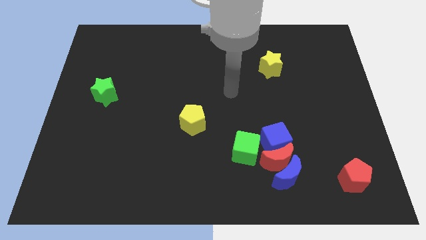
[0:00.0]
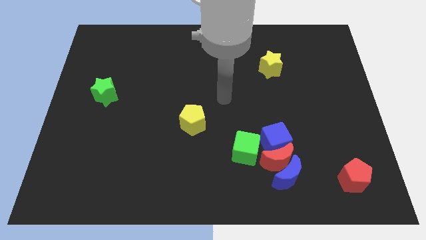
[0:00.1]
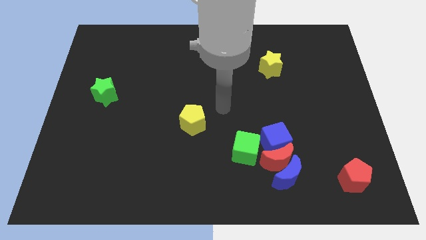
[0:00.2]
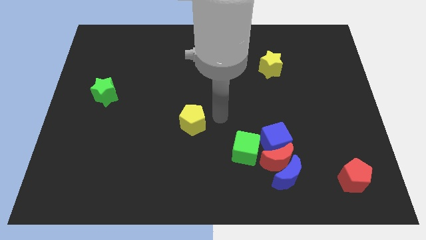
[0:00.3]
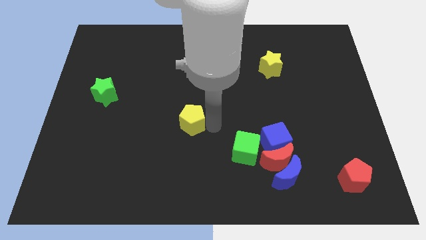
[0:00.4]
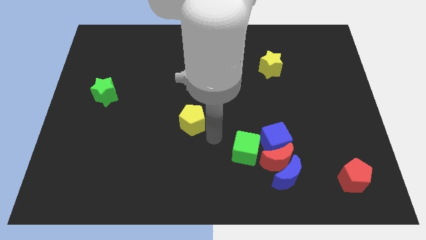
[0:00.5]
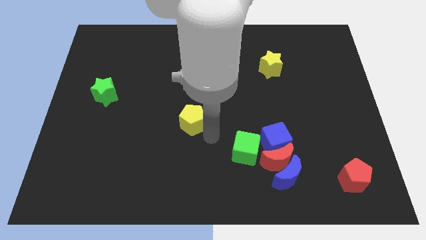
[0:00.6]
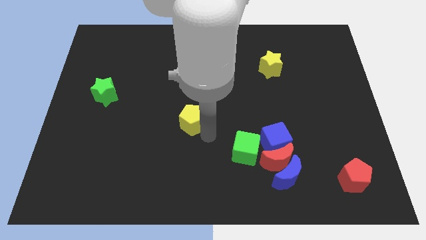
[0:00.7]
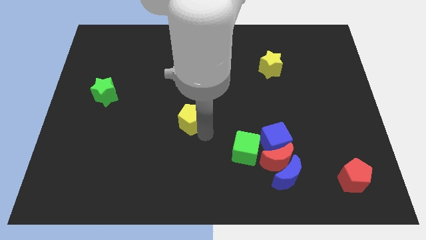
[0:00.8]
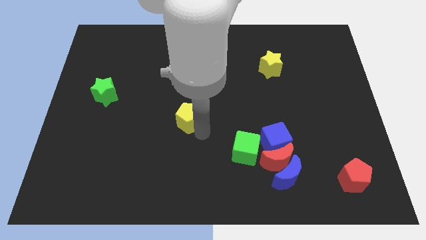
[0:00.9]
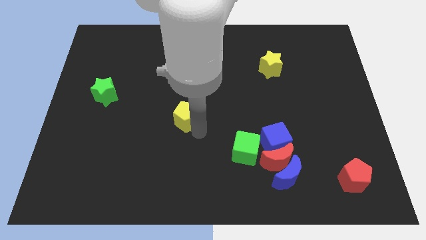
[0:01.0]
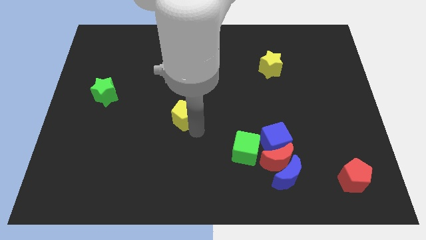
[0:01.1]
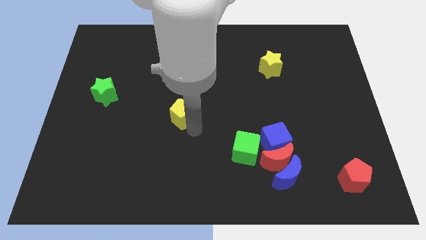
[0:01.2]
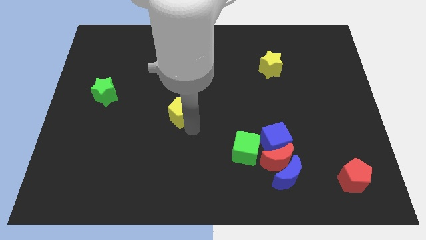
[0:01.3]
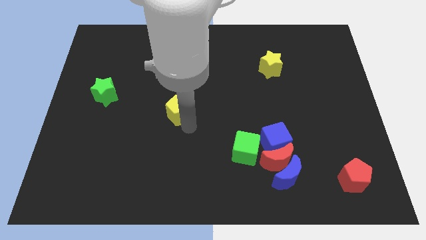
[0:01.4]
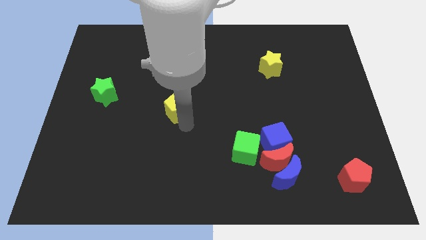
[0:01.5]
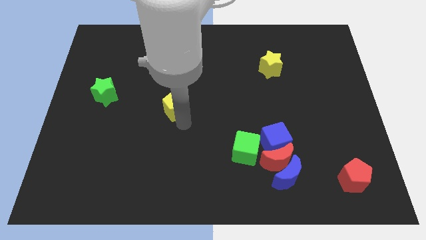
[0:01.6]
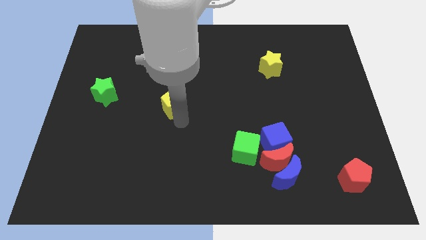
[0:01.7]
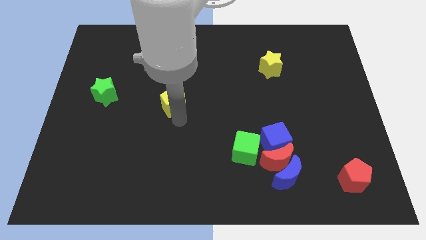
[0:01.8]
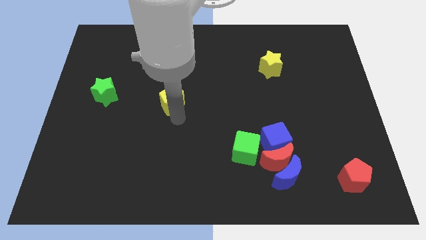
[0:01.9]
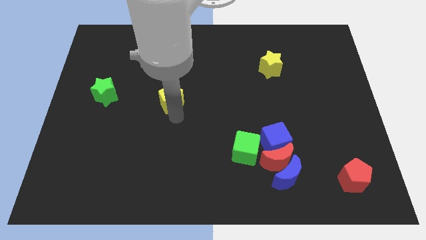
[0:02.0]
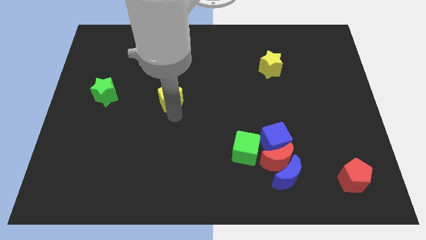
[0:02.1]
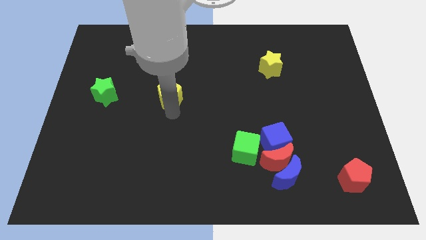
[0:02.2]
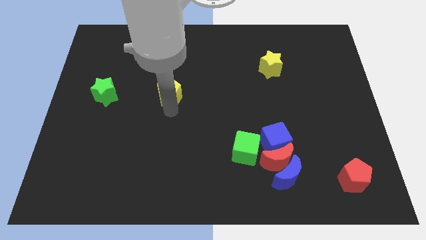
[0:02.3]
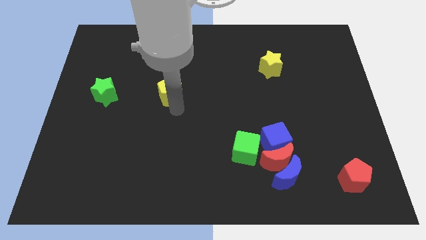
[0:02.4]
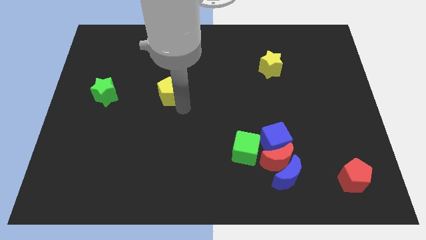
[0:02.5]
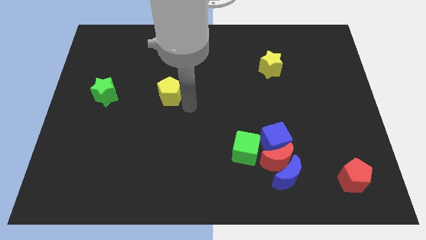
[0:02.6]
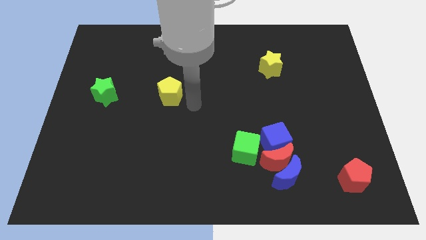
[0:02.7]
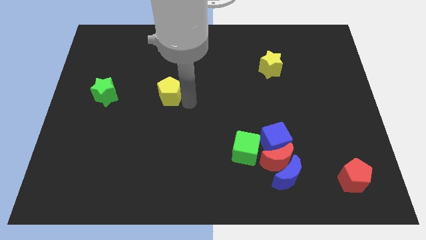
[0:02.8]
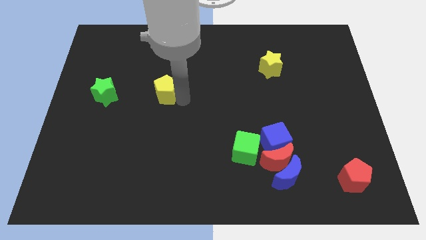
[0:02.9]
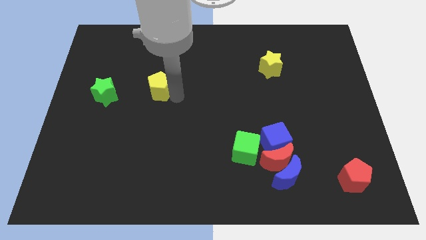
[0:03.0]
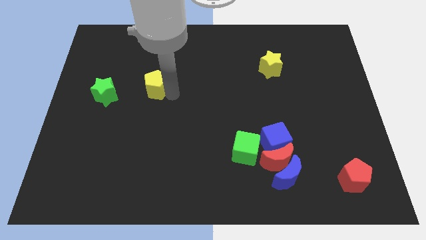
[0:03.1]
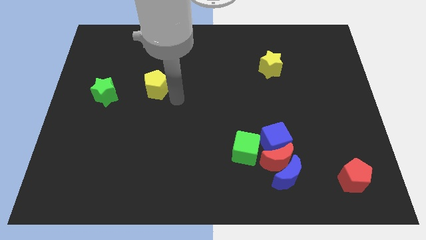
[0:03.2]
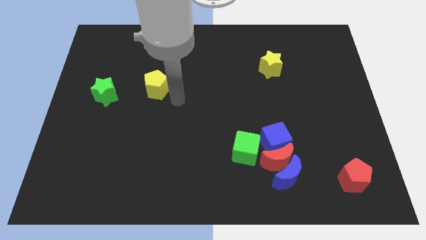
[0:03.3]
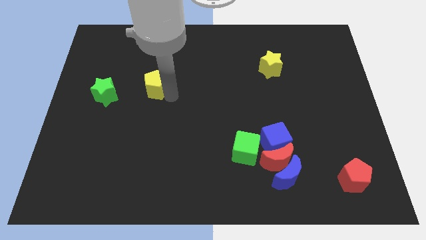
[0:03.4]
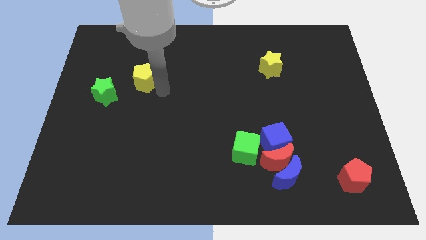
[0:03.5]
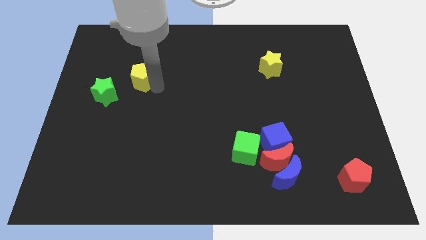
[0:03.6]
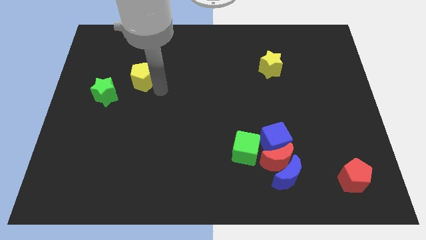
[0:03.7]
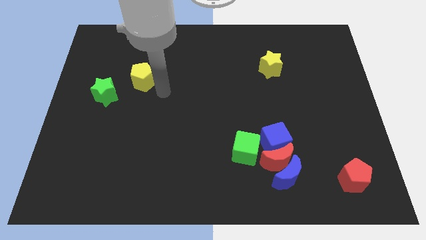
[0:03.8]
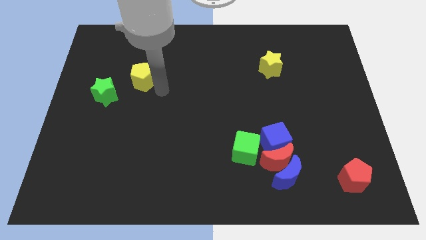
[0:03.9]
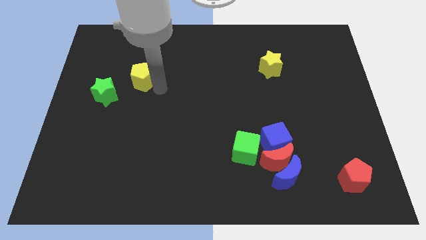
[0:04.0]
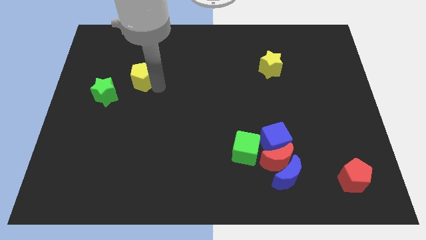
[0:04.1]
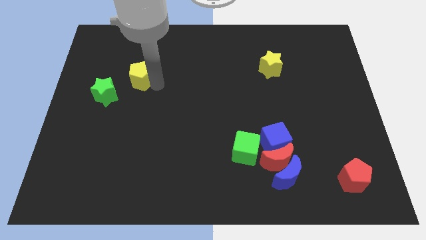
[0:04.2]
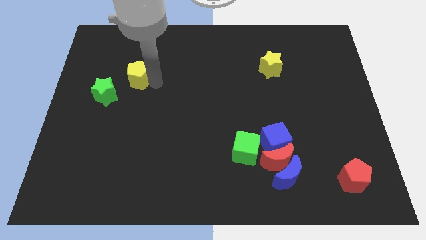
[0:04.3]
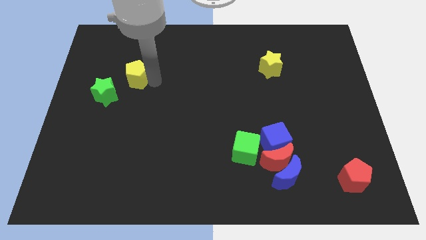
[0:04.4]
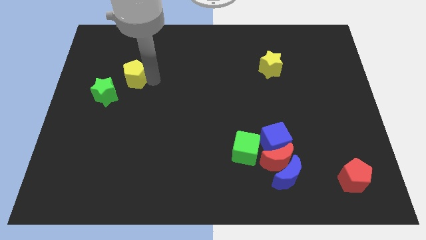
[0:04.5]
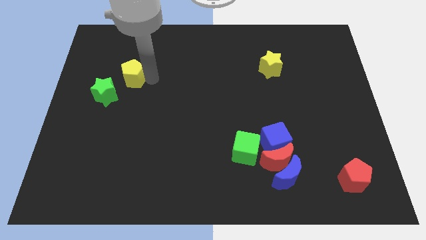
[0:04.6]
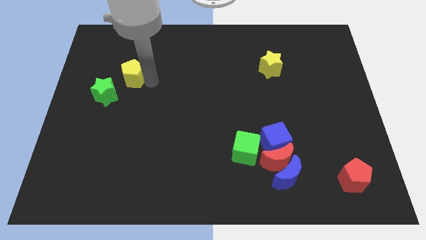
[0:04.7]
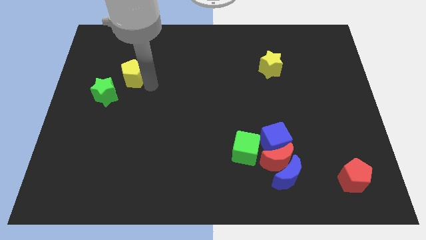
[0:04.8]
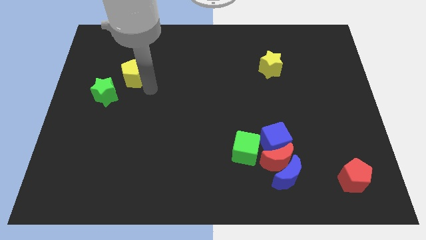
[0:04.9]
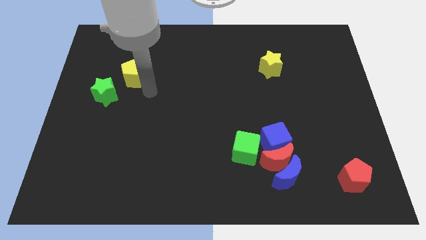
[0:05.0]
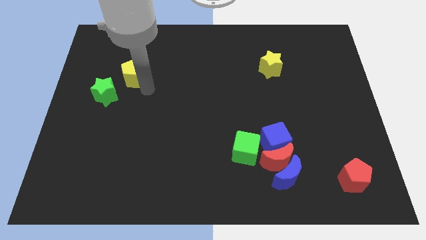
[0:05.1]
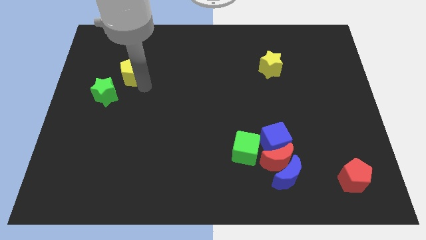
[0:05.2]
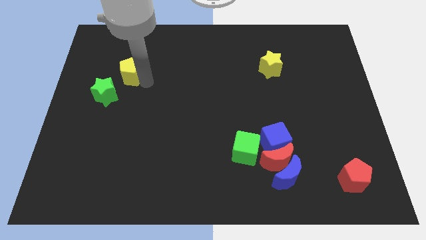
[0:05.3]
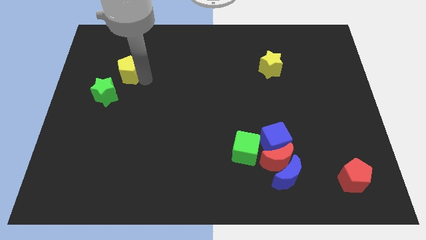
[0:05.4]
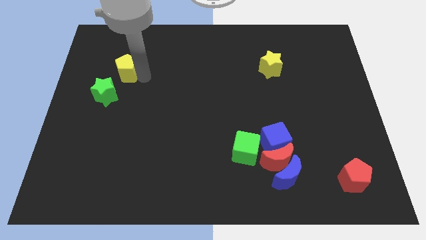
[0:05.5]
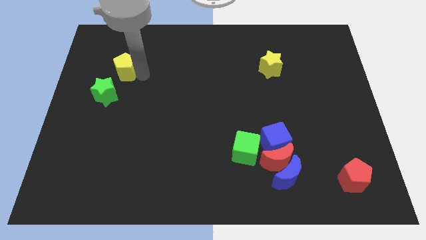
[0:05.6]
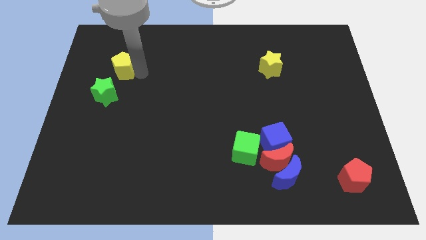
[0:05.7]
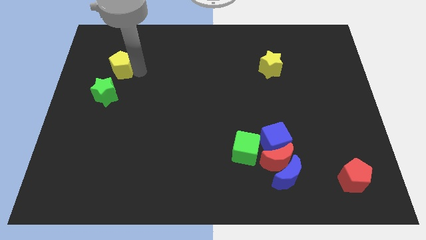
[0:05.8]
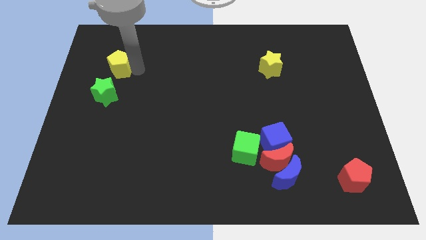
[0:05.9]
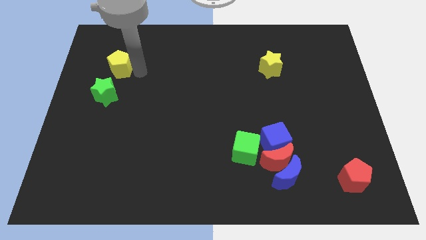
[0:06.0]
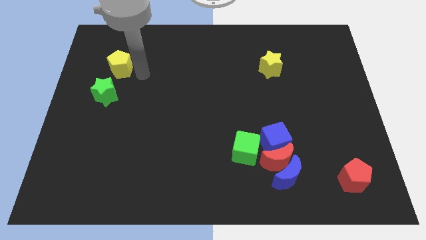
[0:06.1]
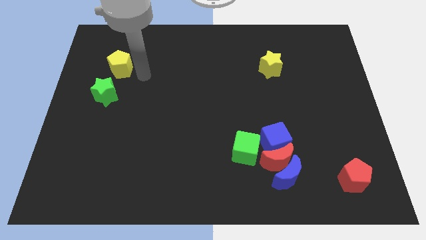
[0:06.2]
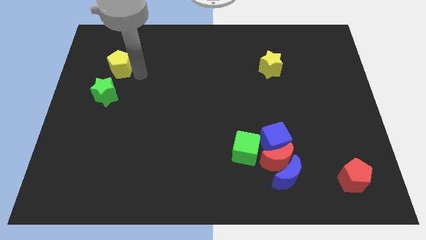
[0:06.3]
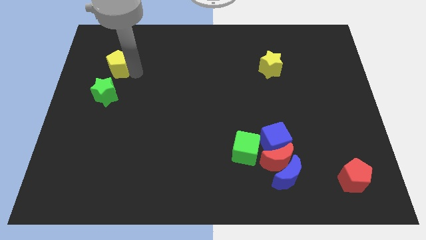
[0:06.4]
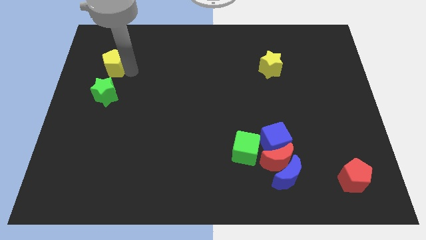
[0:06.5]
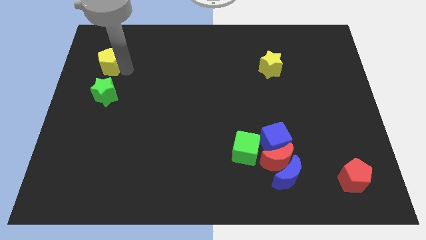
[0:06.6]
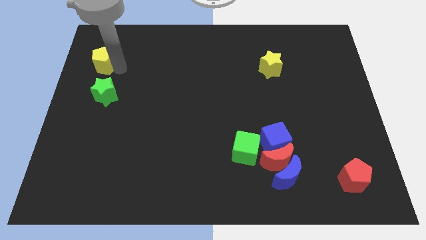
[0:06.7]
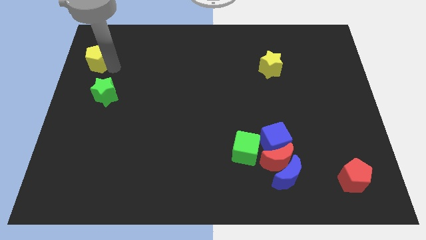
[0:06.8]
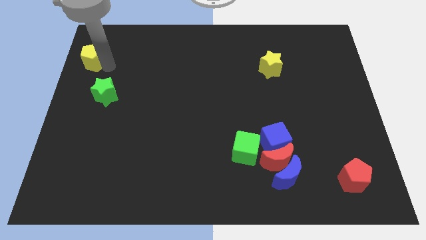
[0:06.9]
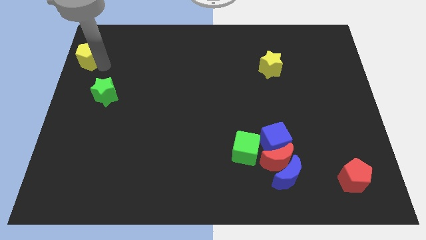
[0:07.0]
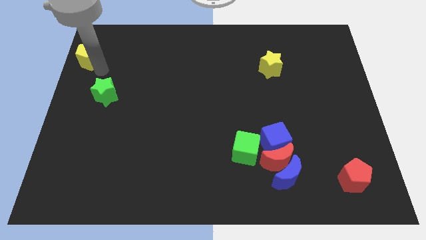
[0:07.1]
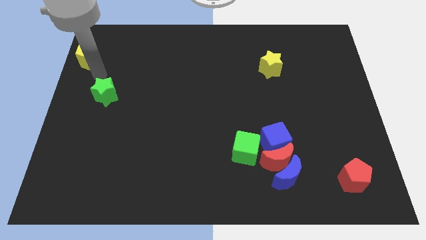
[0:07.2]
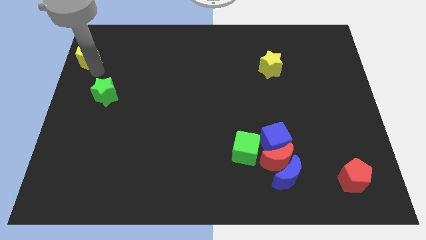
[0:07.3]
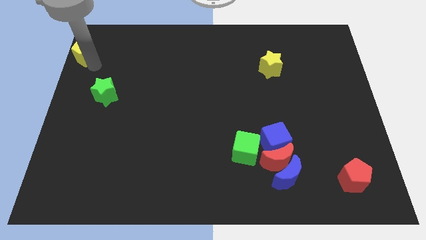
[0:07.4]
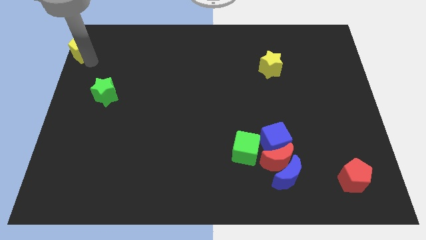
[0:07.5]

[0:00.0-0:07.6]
push the yellow pentagon to the upper left corner
